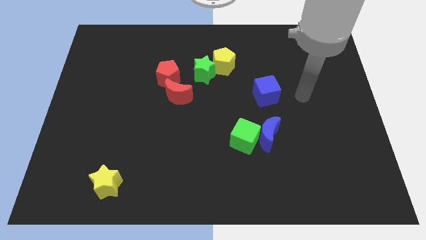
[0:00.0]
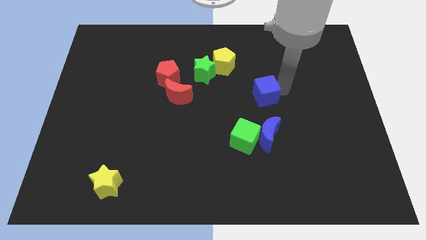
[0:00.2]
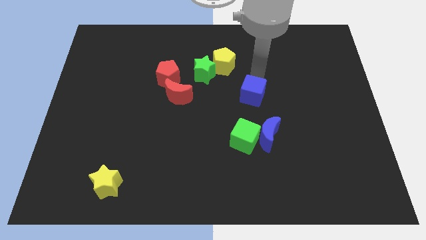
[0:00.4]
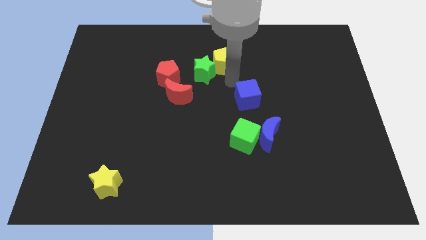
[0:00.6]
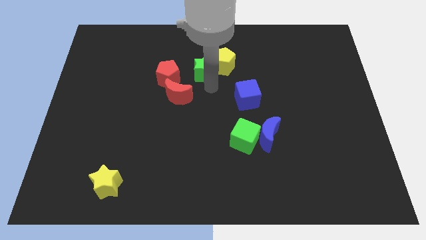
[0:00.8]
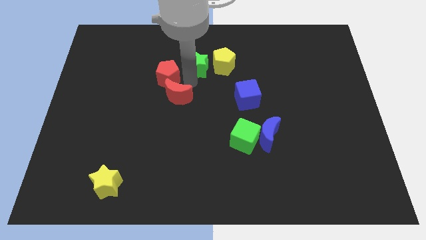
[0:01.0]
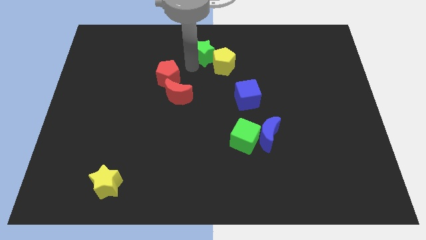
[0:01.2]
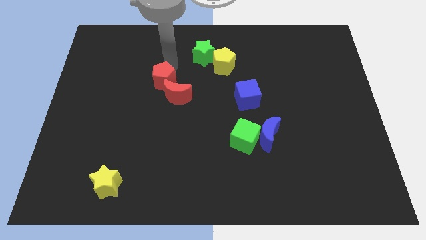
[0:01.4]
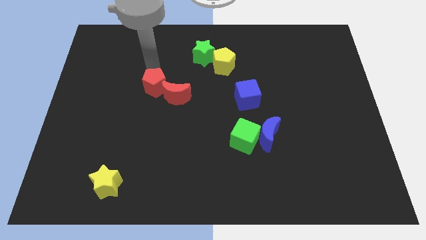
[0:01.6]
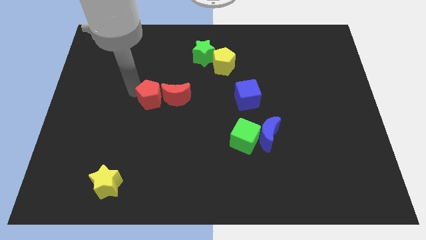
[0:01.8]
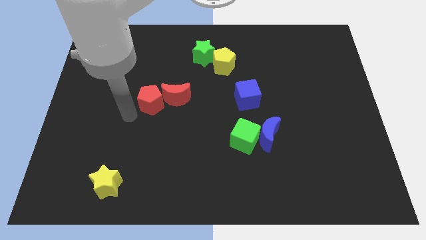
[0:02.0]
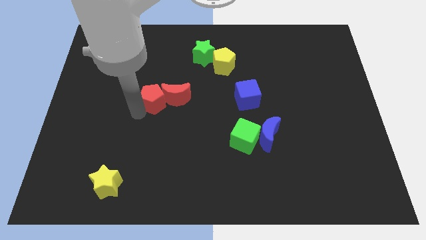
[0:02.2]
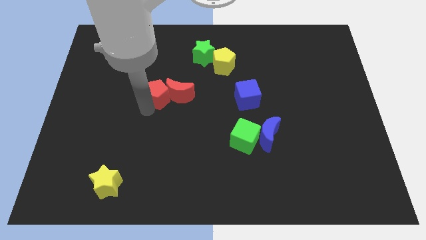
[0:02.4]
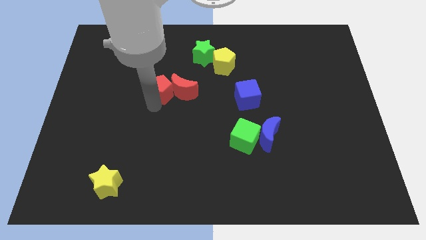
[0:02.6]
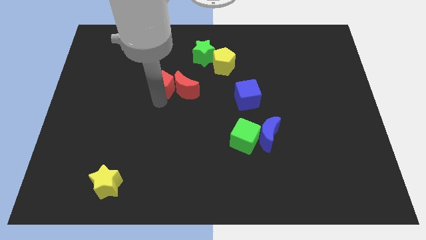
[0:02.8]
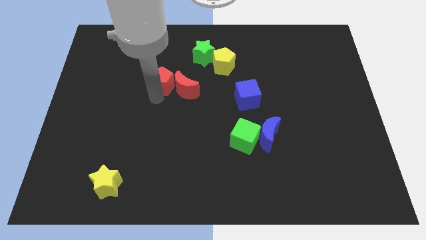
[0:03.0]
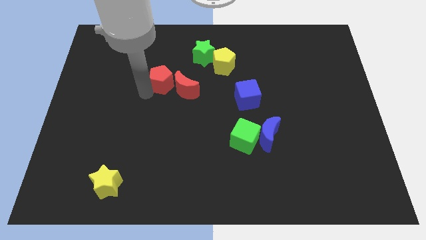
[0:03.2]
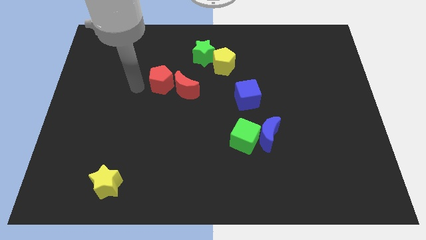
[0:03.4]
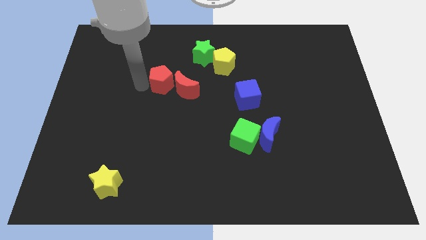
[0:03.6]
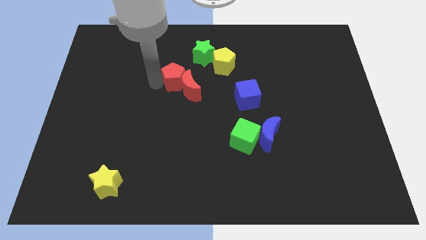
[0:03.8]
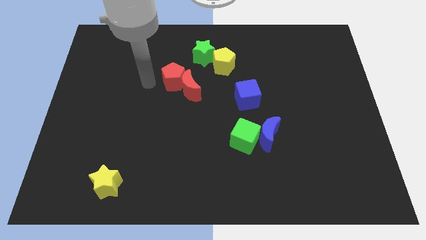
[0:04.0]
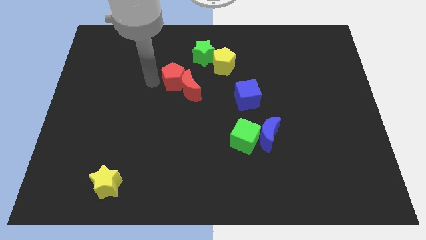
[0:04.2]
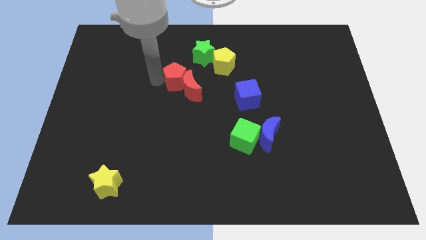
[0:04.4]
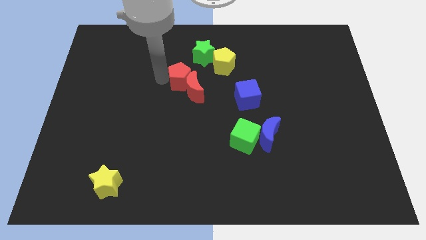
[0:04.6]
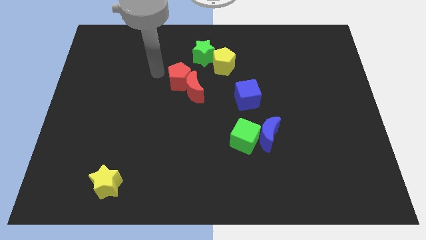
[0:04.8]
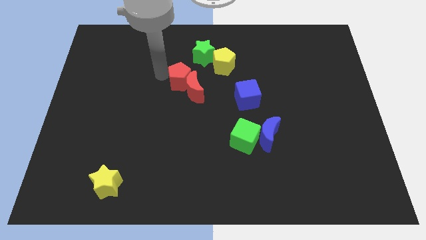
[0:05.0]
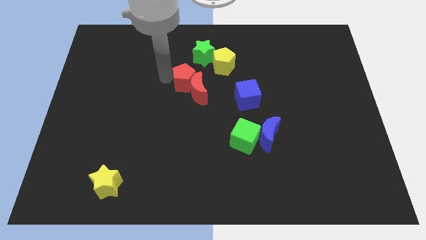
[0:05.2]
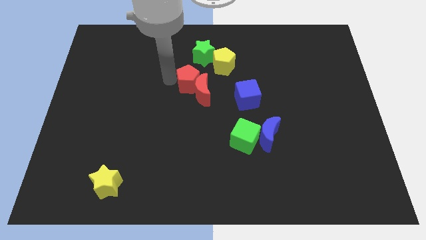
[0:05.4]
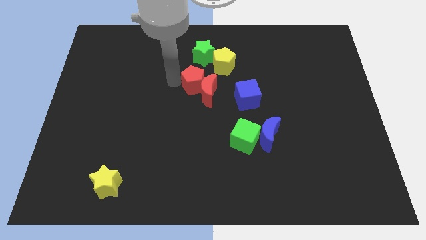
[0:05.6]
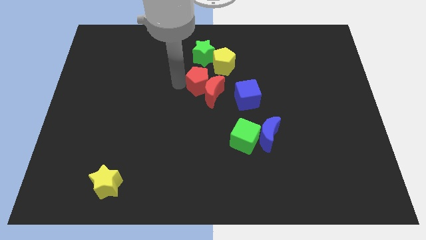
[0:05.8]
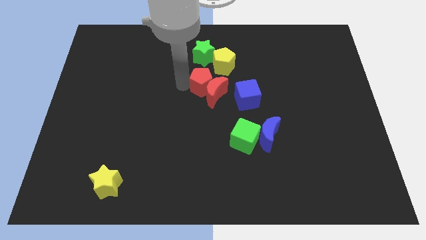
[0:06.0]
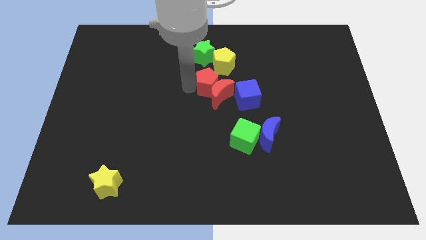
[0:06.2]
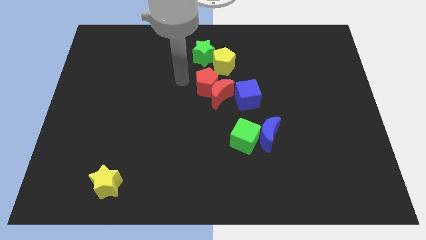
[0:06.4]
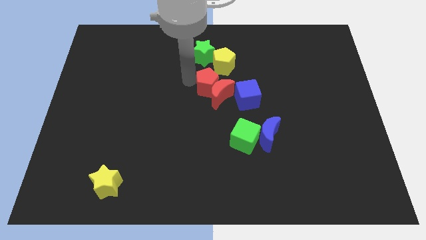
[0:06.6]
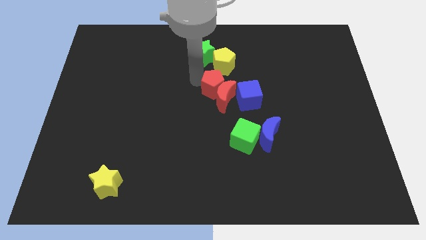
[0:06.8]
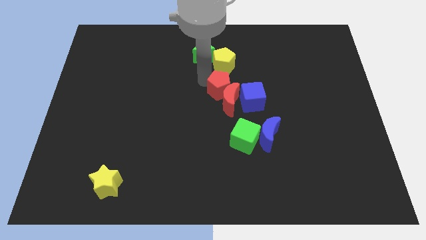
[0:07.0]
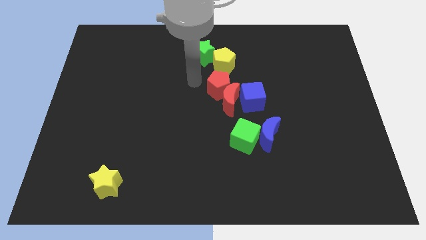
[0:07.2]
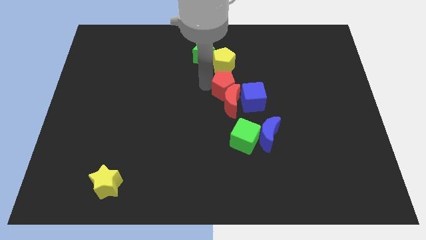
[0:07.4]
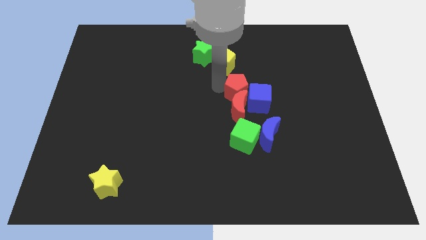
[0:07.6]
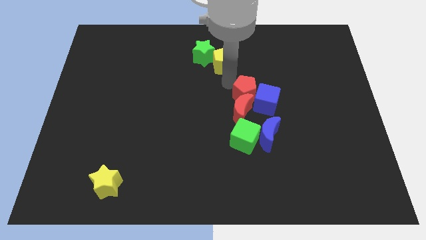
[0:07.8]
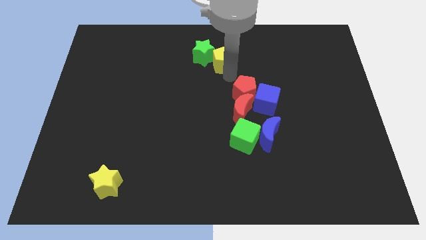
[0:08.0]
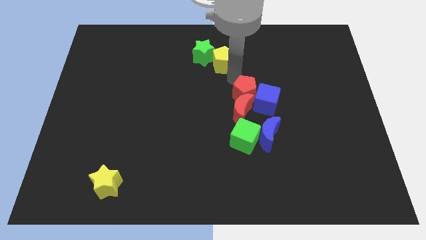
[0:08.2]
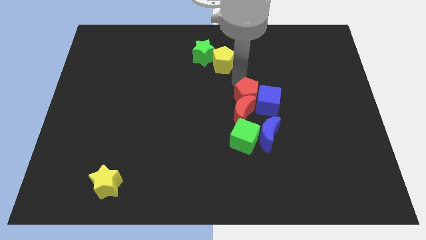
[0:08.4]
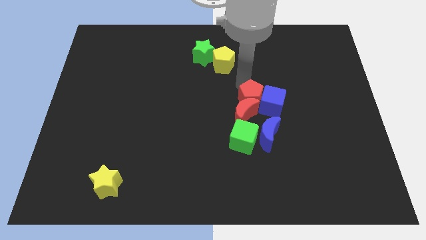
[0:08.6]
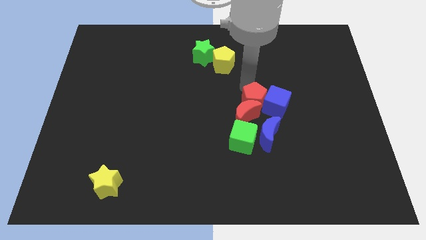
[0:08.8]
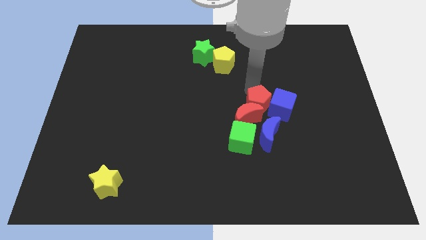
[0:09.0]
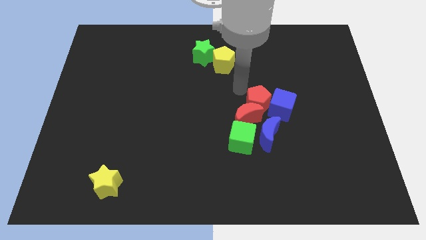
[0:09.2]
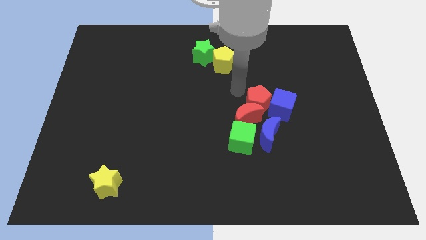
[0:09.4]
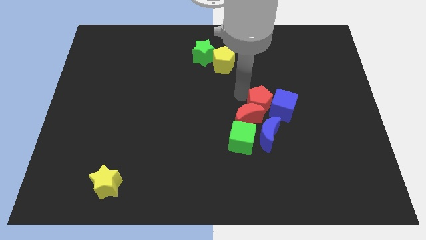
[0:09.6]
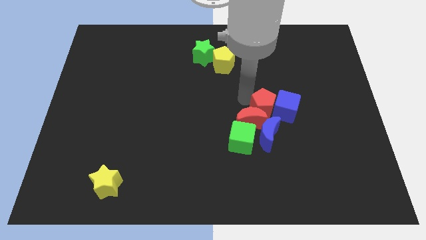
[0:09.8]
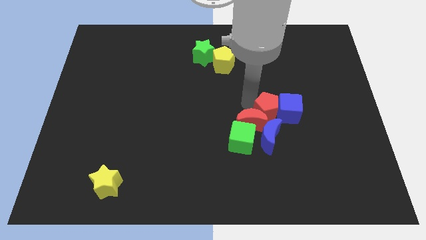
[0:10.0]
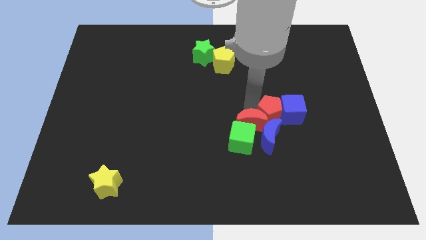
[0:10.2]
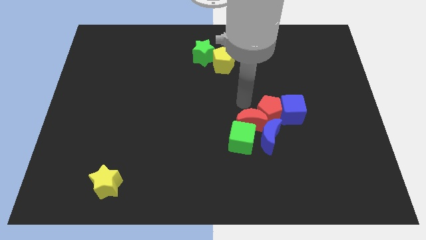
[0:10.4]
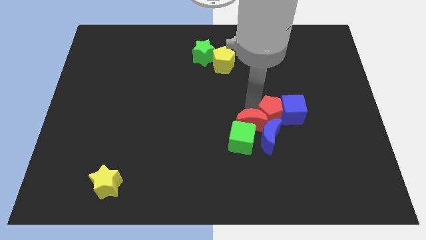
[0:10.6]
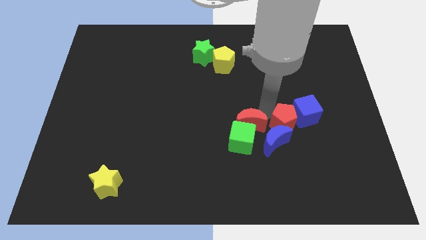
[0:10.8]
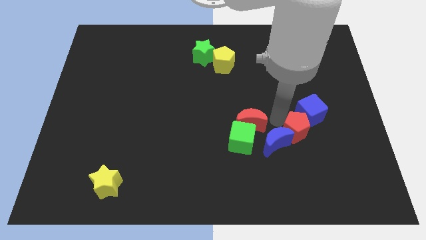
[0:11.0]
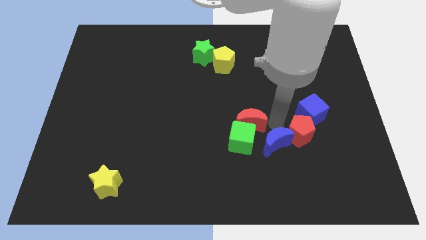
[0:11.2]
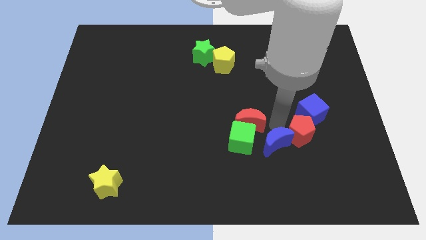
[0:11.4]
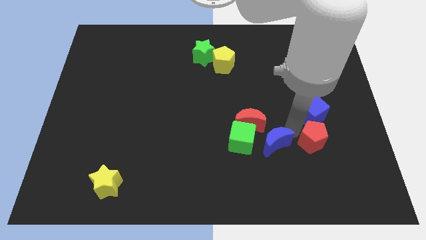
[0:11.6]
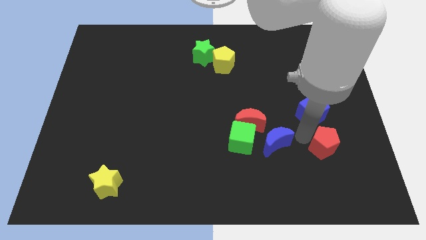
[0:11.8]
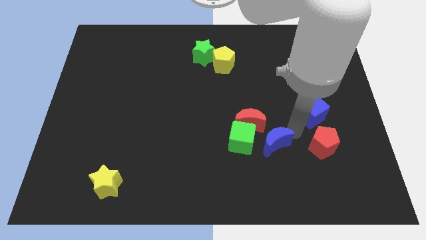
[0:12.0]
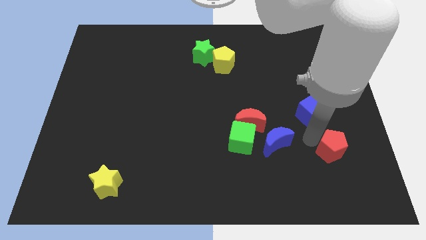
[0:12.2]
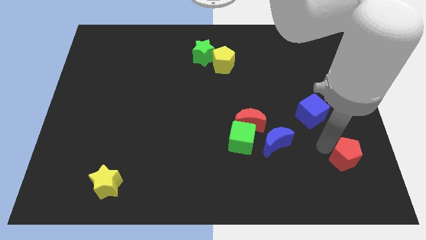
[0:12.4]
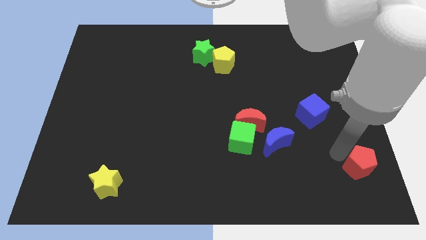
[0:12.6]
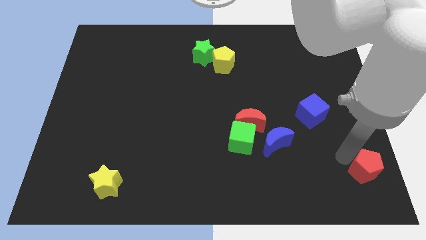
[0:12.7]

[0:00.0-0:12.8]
put the red pentagon to the lower right corner

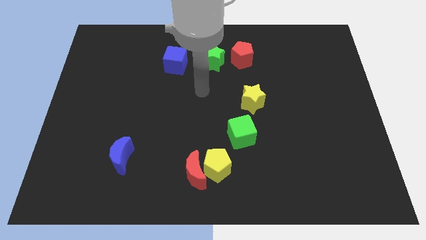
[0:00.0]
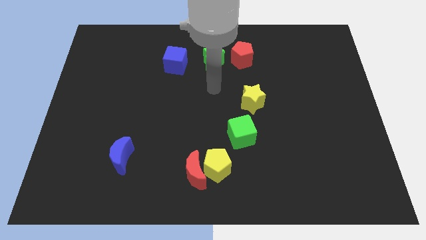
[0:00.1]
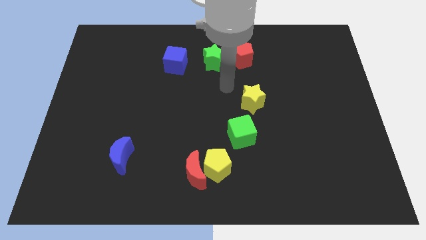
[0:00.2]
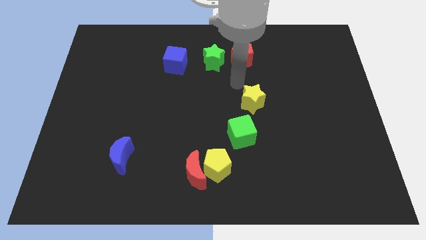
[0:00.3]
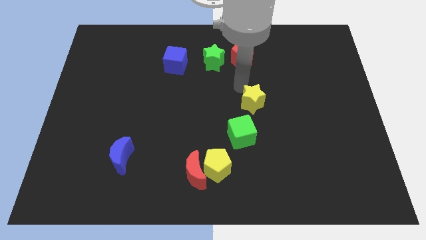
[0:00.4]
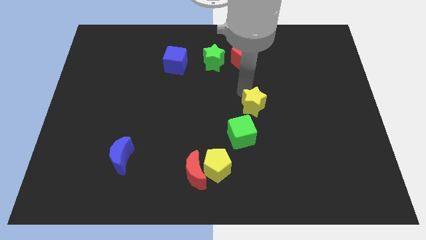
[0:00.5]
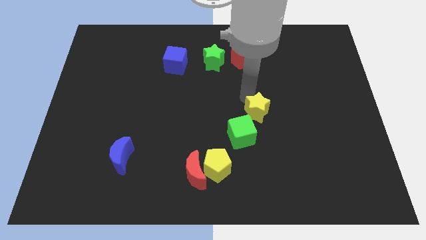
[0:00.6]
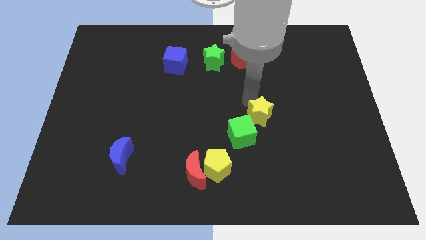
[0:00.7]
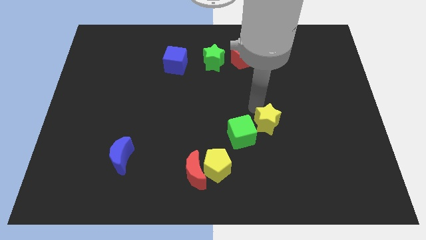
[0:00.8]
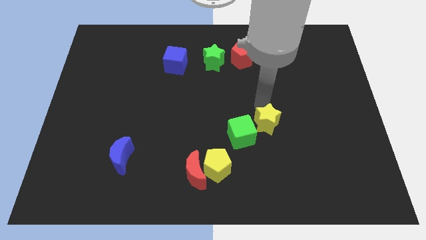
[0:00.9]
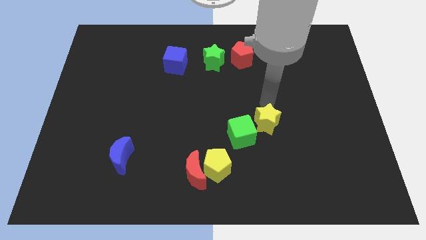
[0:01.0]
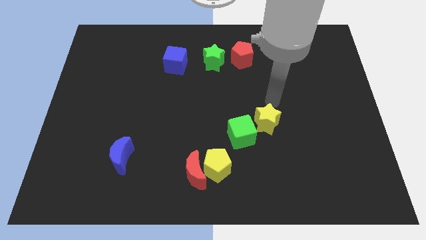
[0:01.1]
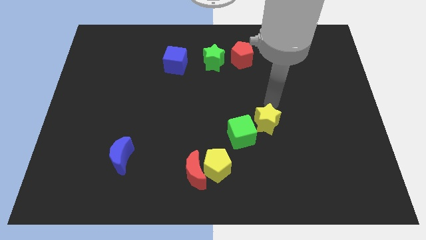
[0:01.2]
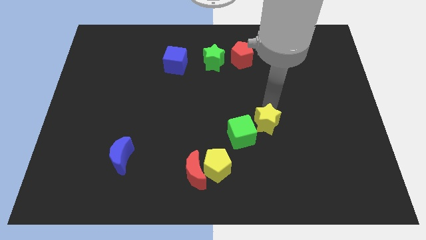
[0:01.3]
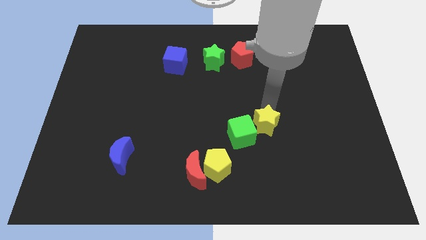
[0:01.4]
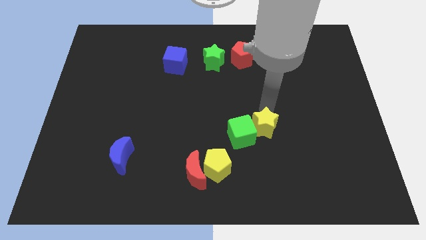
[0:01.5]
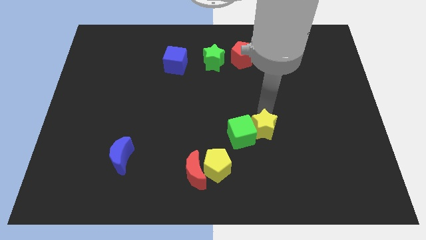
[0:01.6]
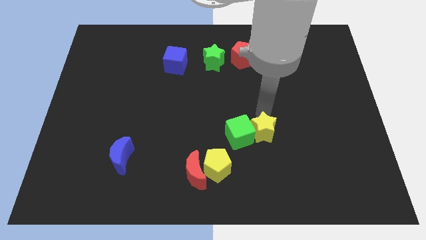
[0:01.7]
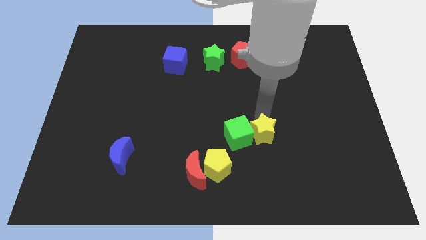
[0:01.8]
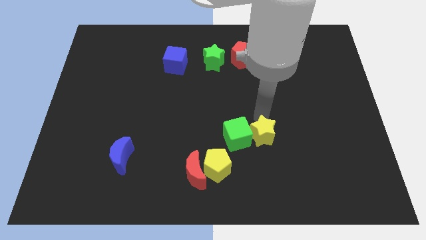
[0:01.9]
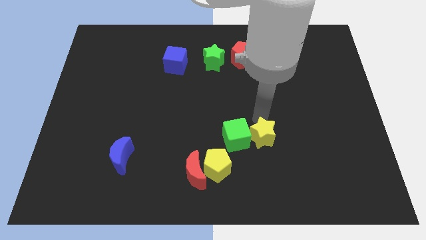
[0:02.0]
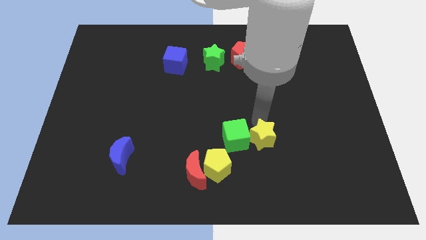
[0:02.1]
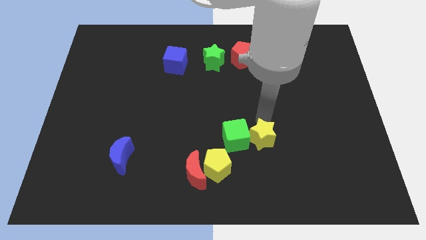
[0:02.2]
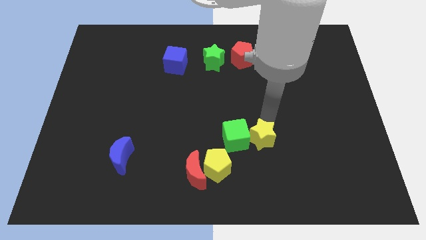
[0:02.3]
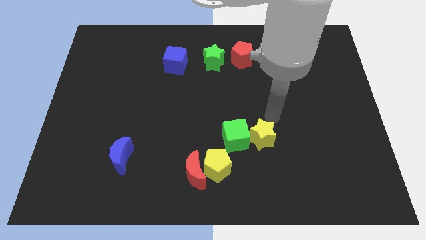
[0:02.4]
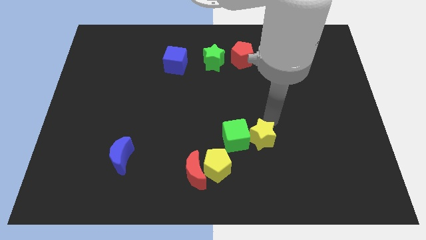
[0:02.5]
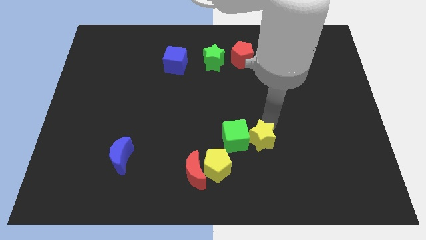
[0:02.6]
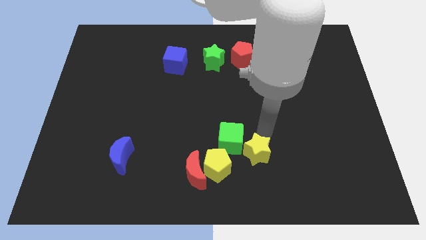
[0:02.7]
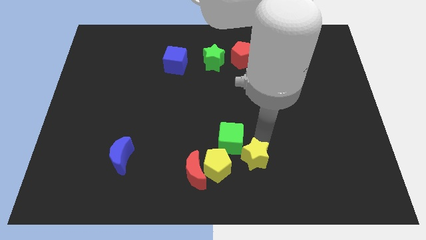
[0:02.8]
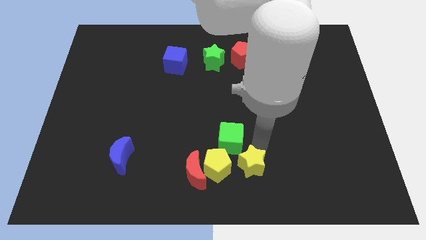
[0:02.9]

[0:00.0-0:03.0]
put the yellow star to the bottom side
